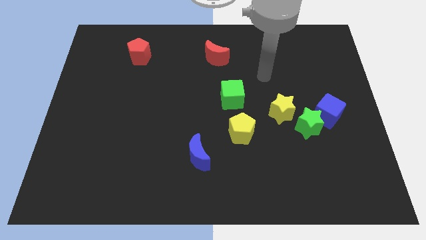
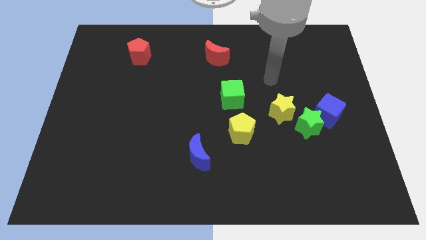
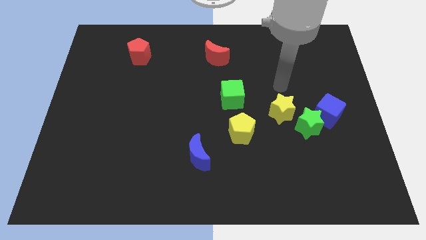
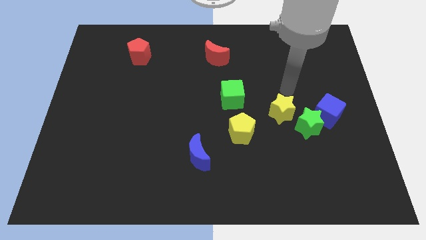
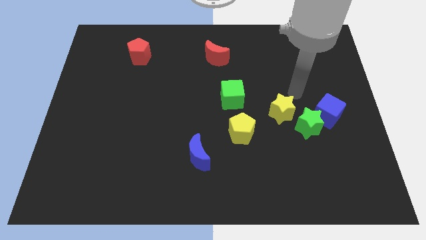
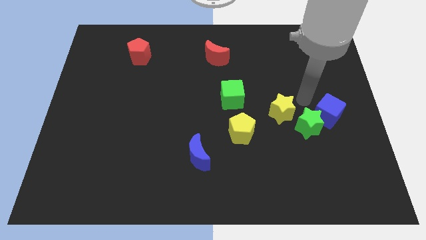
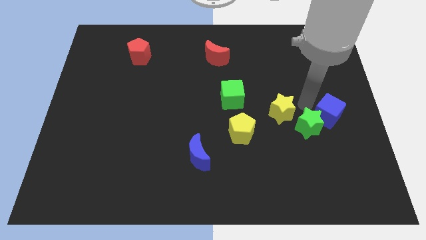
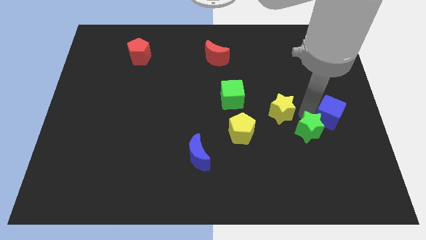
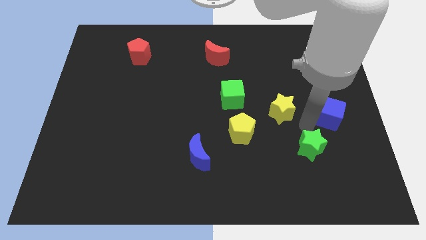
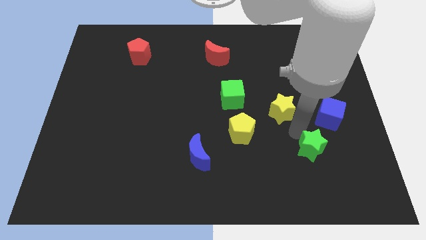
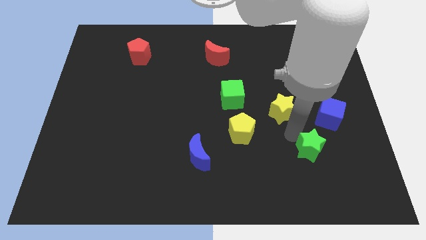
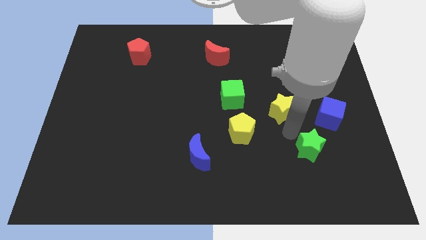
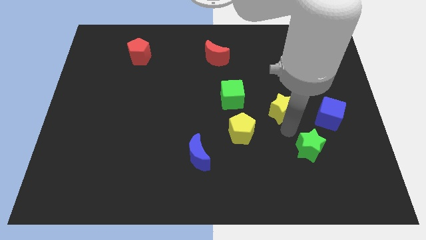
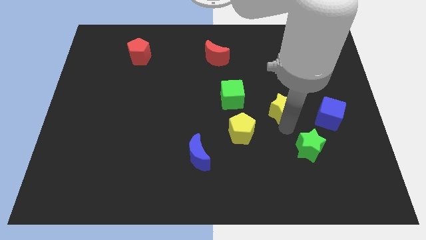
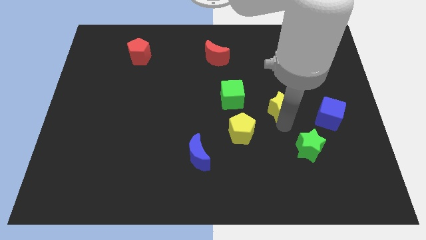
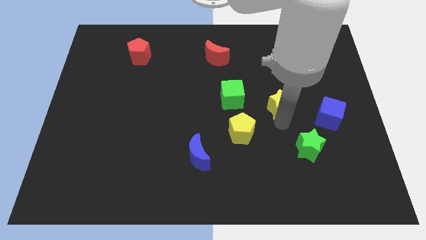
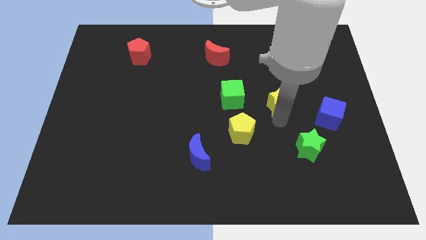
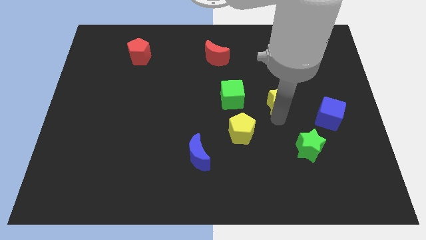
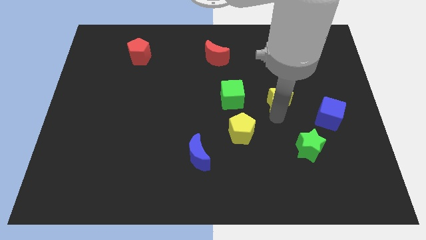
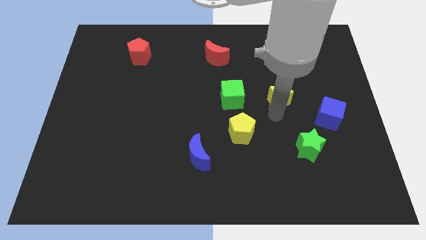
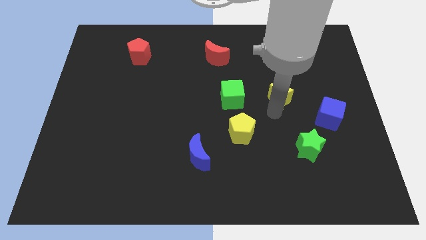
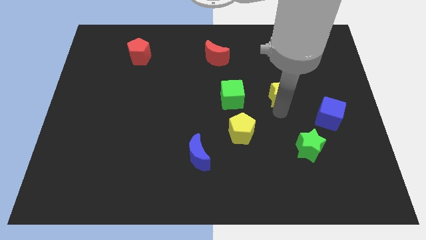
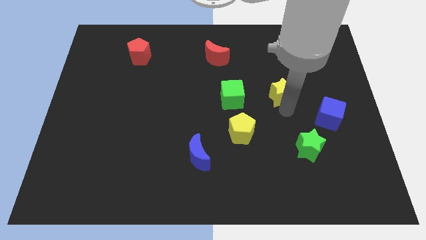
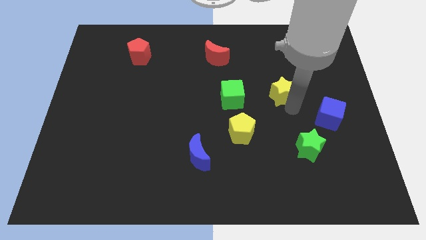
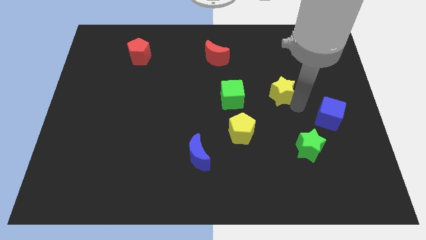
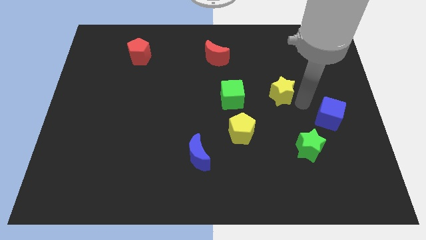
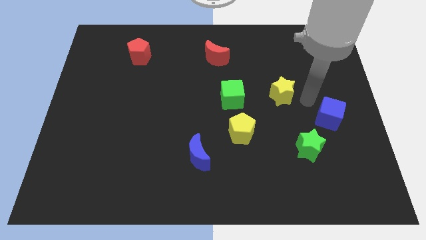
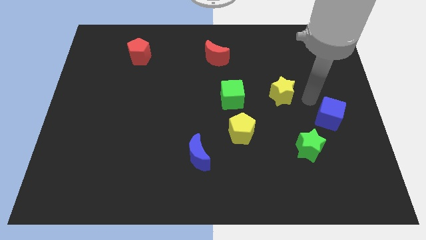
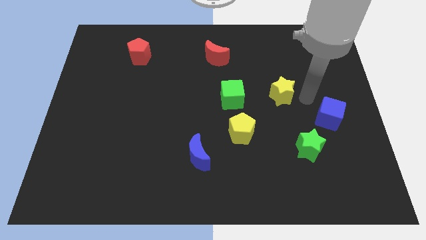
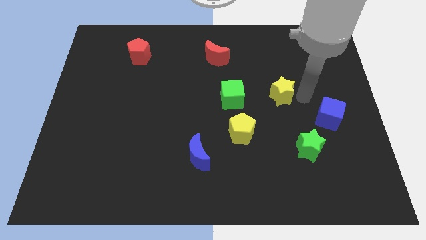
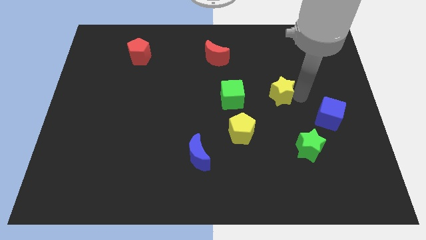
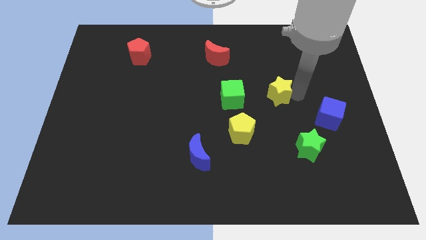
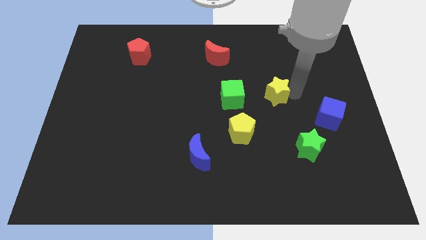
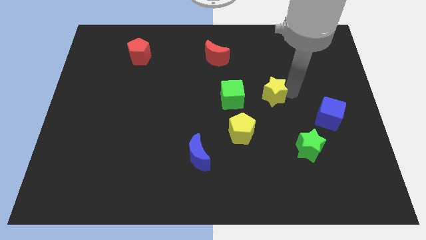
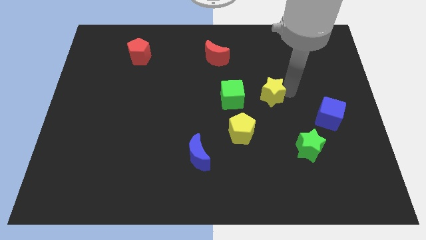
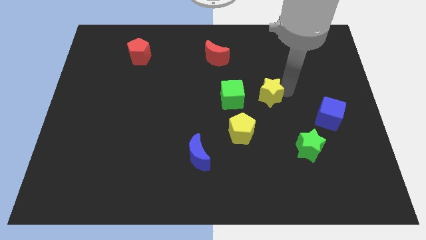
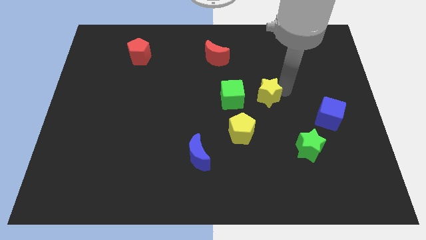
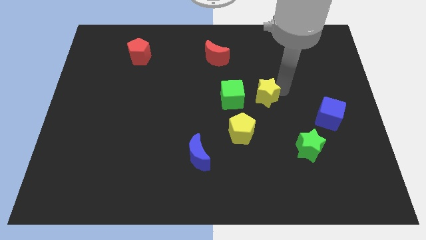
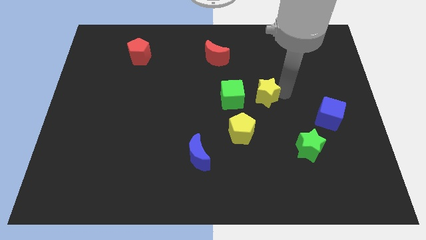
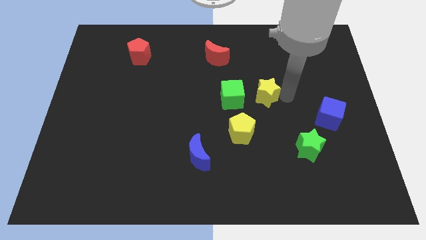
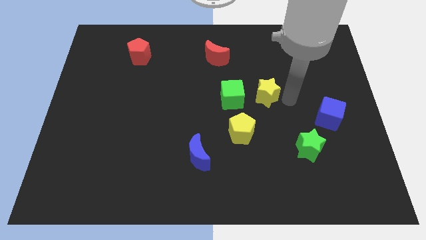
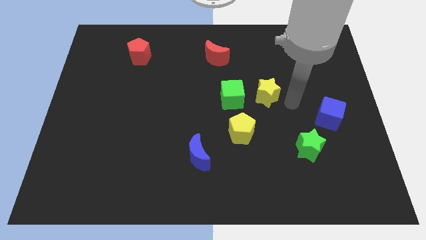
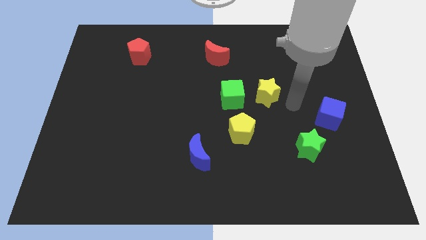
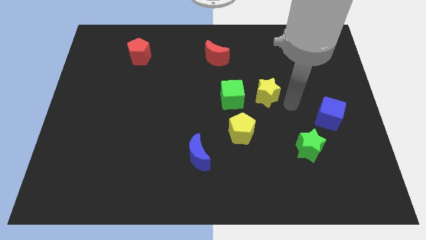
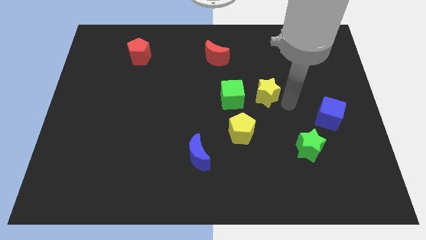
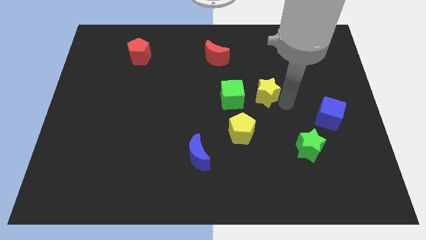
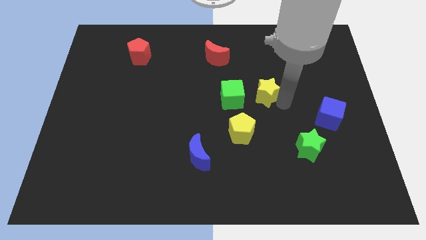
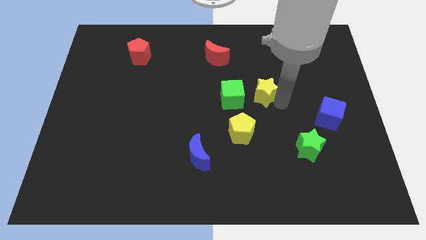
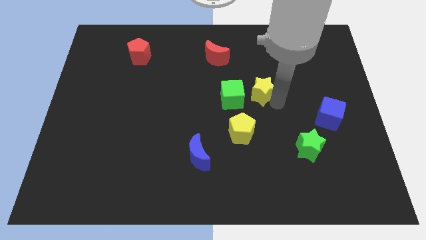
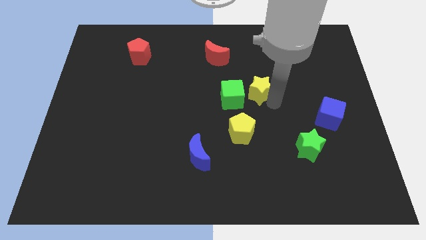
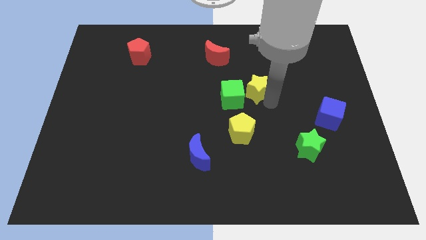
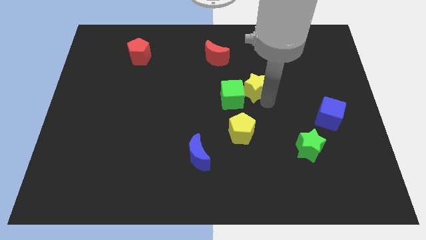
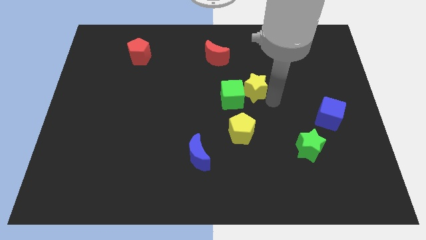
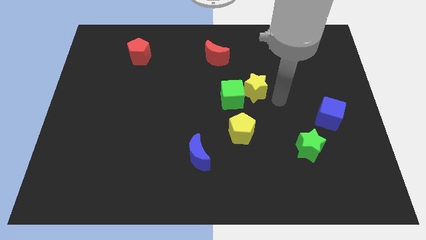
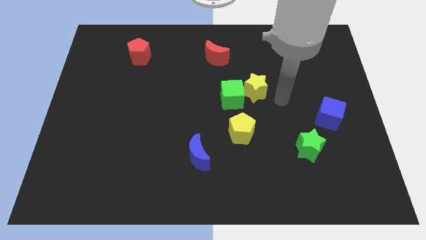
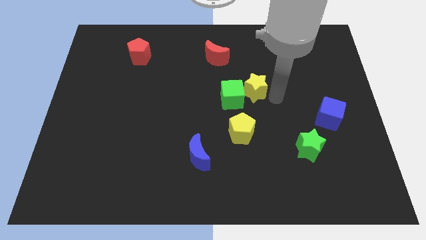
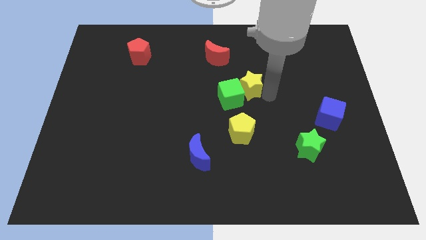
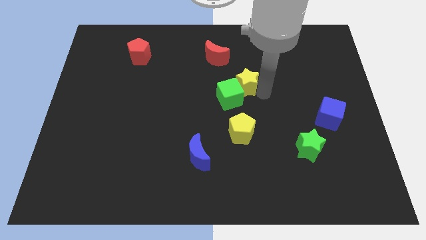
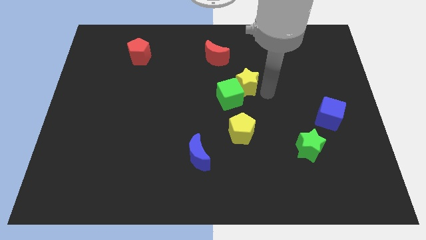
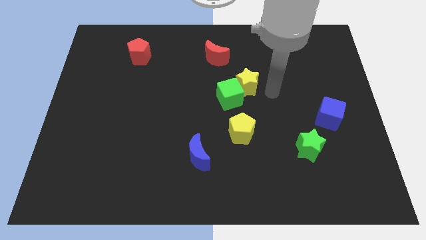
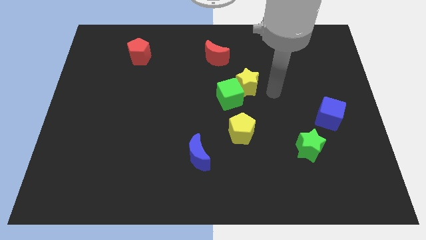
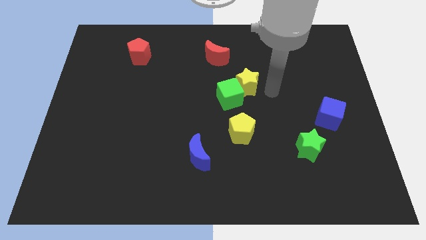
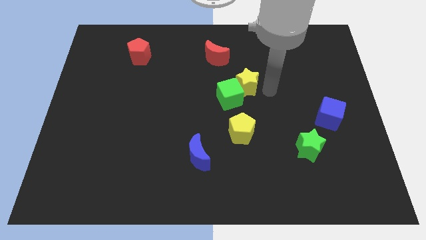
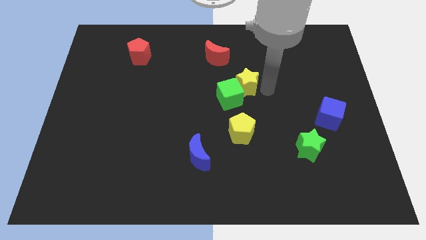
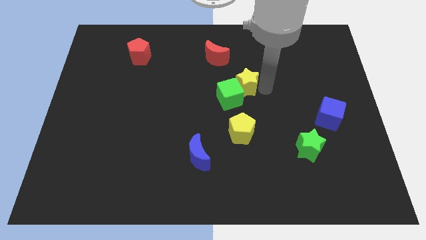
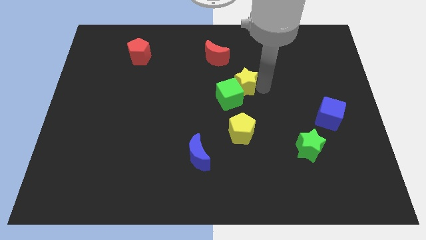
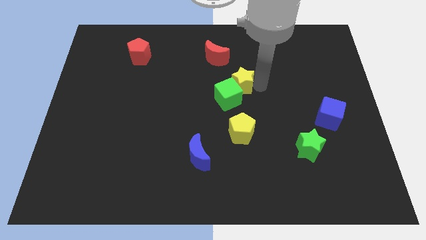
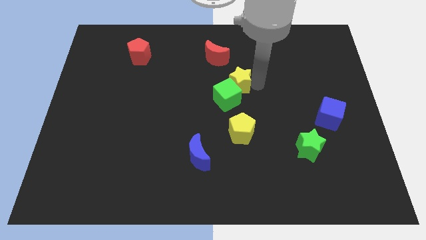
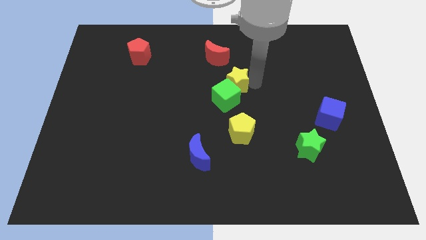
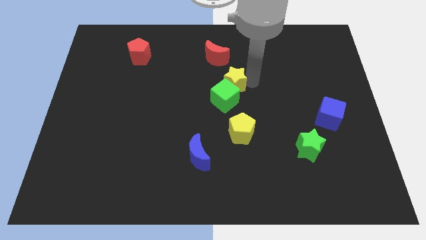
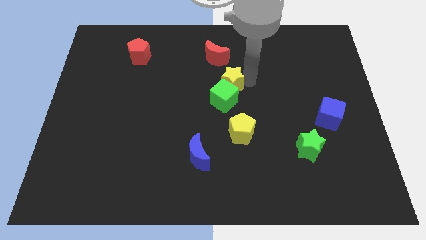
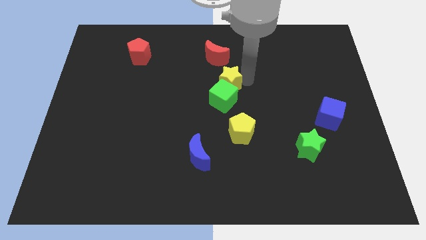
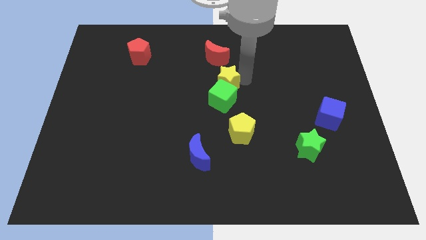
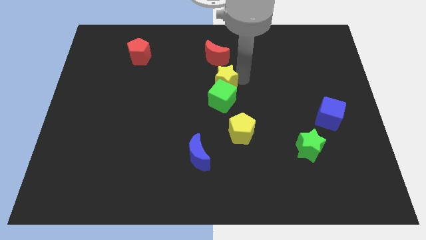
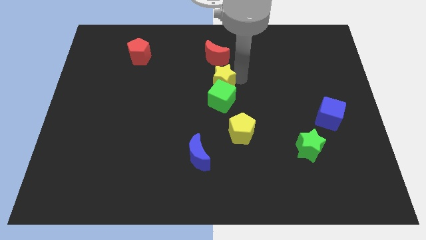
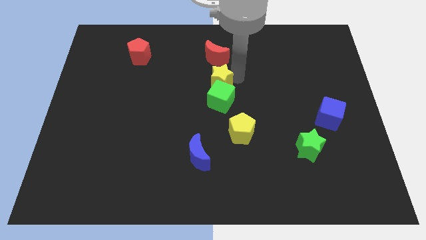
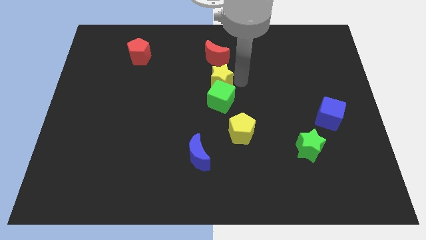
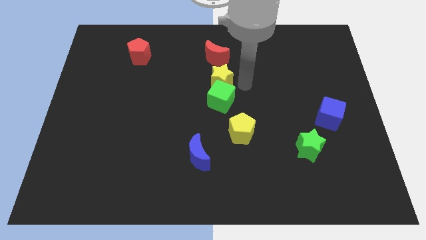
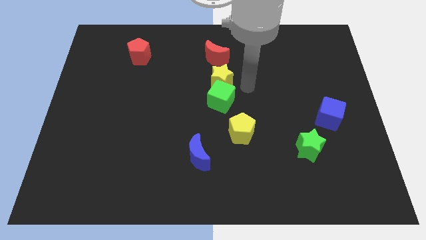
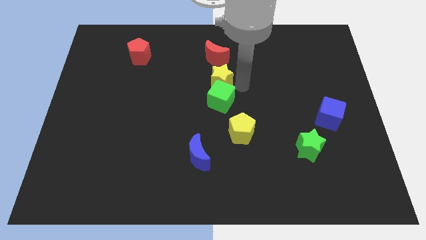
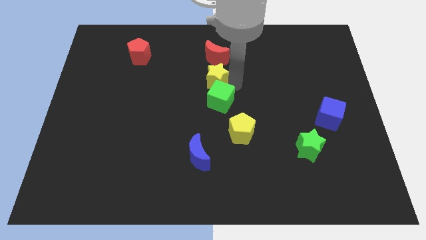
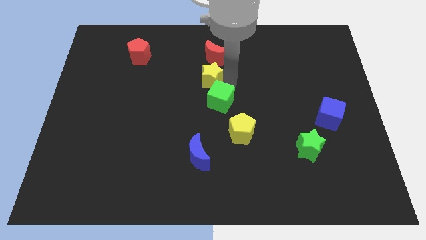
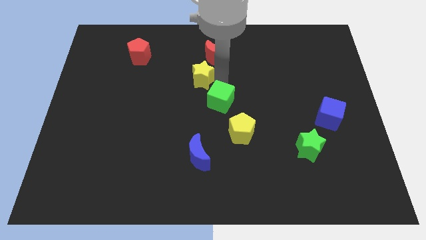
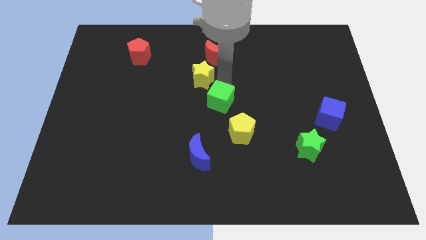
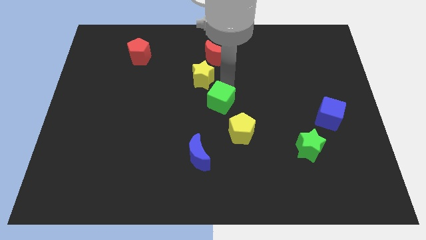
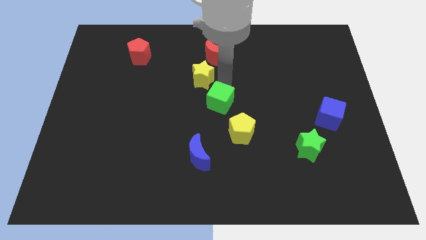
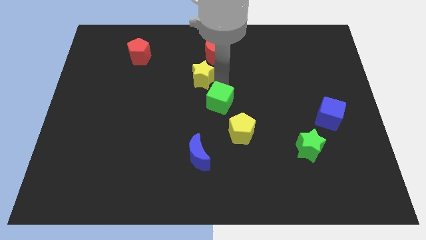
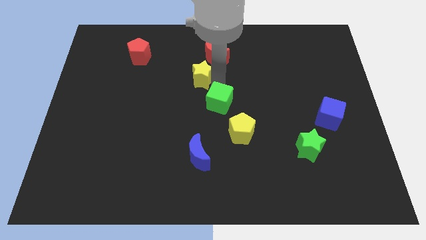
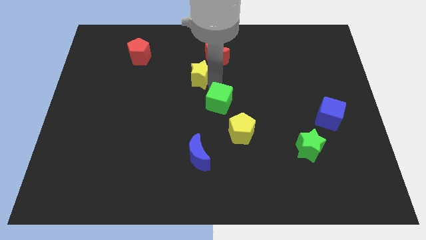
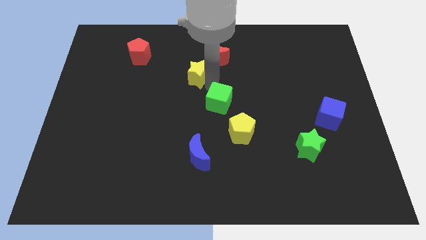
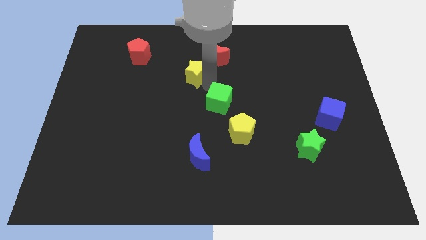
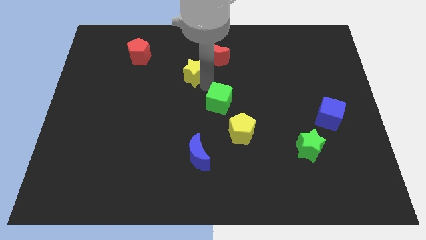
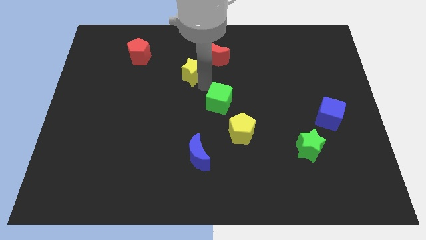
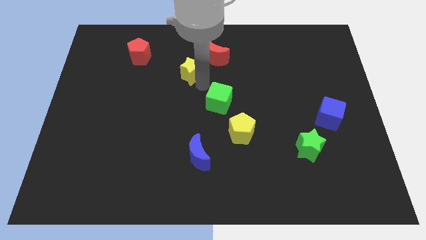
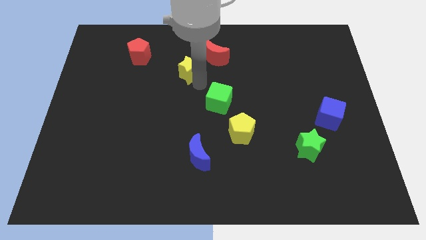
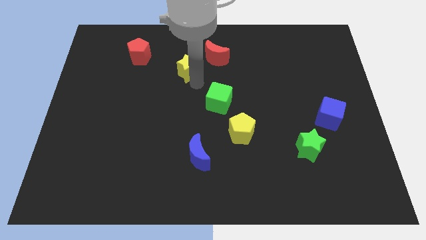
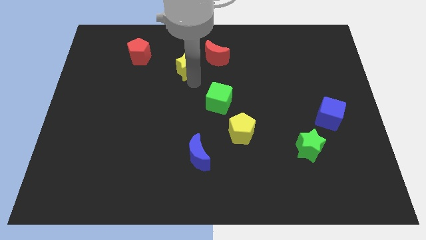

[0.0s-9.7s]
slide the yellow star to the left of the red moon
